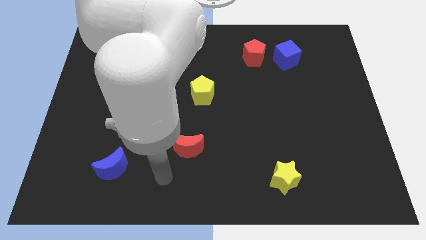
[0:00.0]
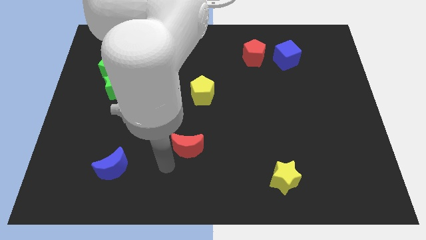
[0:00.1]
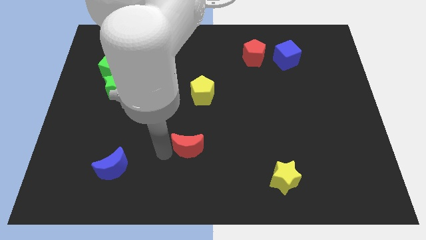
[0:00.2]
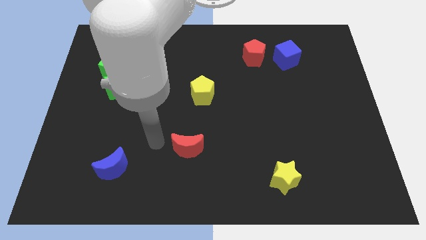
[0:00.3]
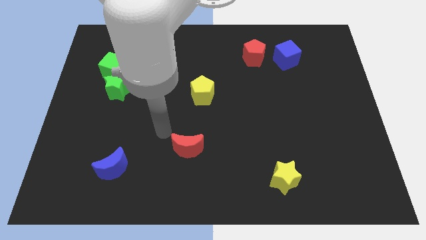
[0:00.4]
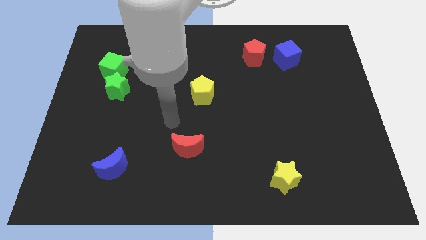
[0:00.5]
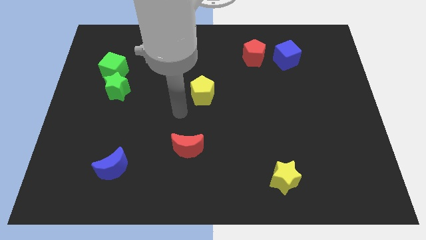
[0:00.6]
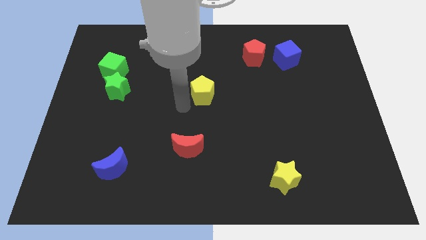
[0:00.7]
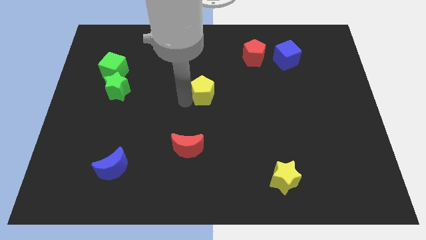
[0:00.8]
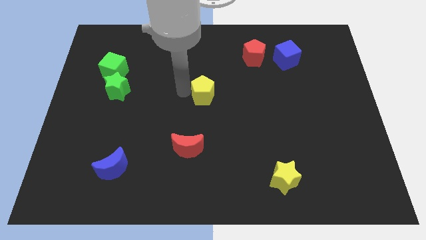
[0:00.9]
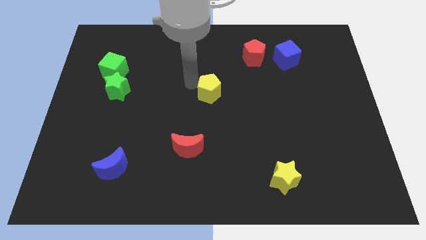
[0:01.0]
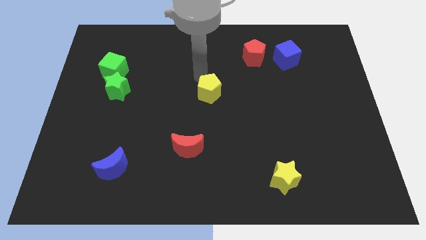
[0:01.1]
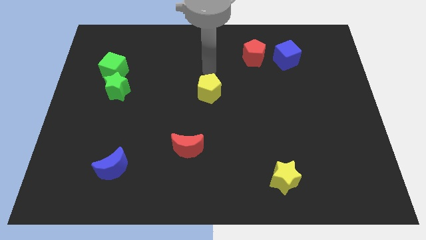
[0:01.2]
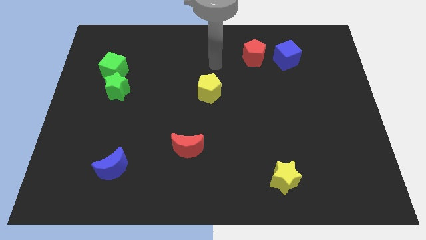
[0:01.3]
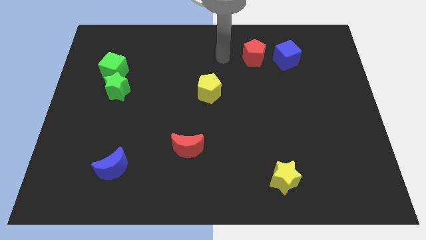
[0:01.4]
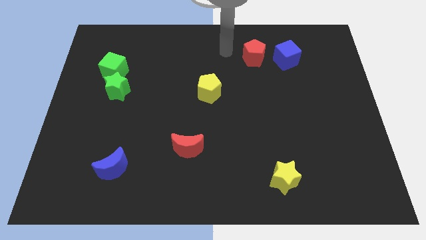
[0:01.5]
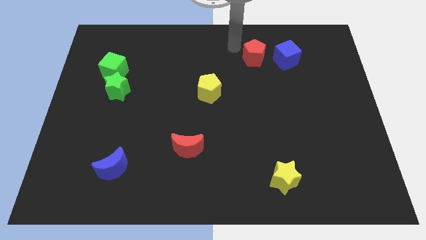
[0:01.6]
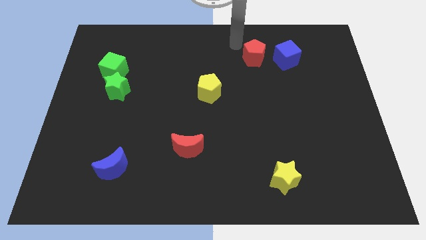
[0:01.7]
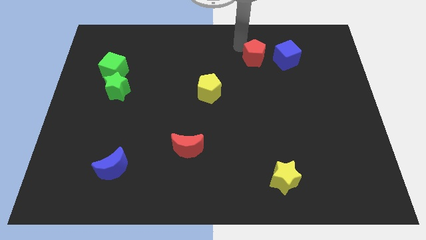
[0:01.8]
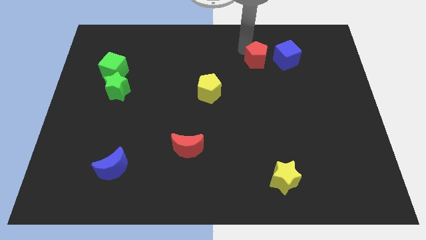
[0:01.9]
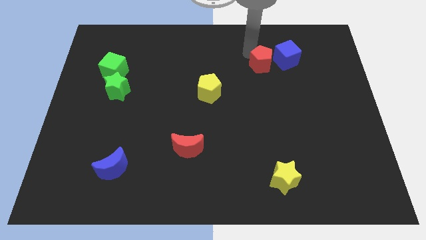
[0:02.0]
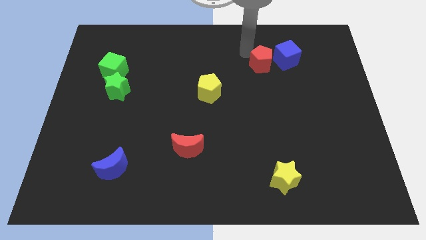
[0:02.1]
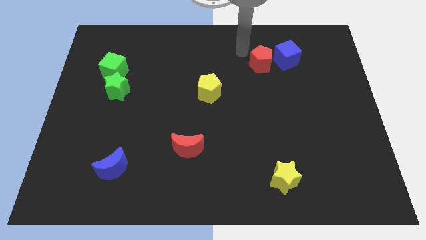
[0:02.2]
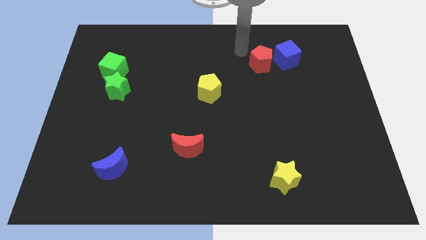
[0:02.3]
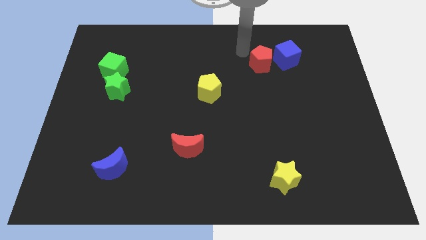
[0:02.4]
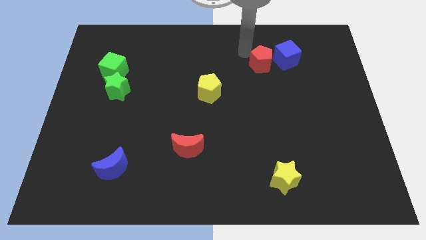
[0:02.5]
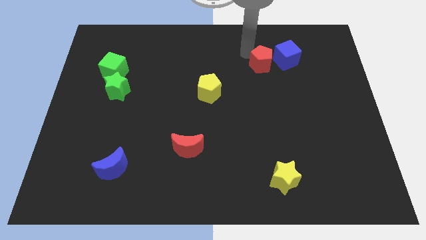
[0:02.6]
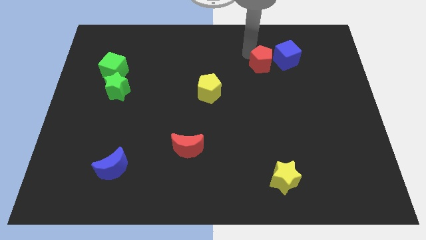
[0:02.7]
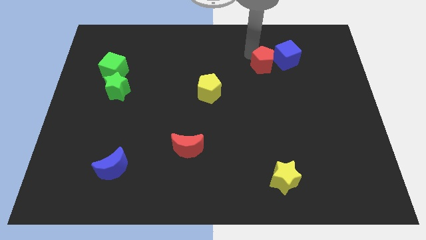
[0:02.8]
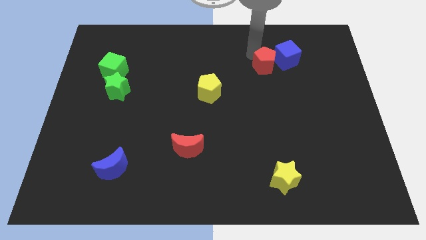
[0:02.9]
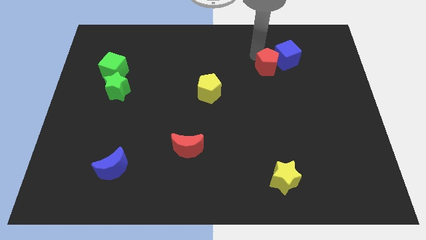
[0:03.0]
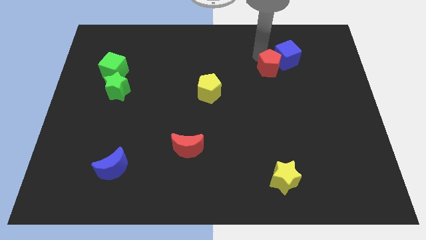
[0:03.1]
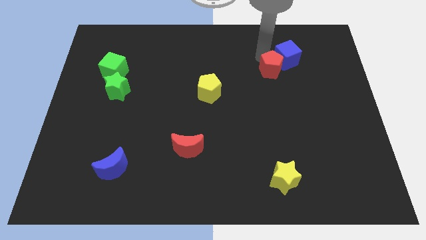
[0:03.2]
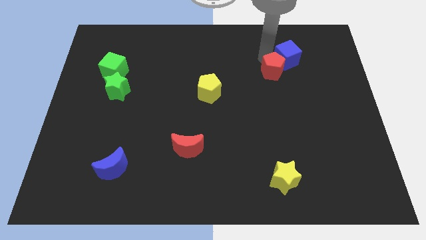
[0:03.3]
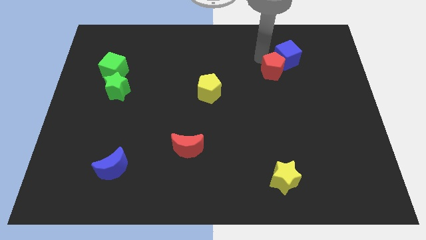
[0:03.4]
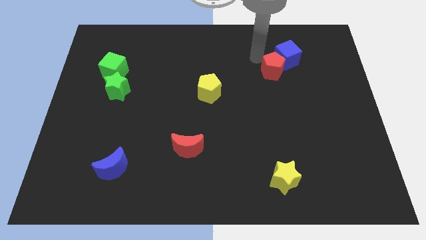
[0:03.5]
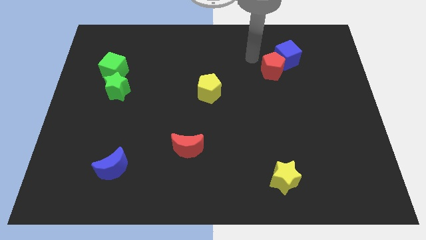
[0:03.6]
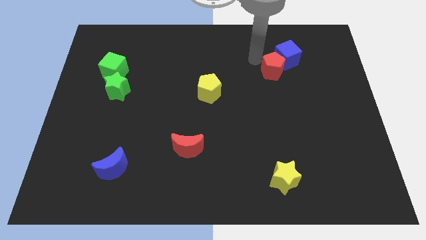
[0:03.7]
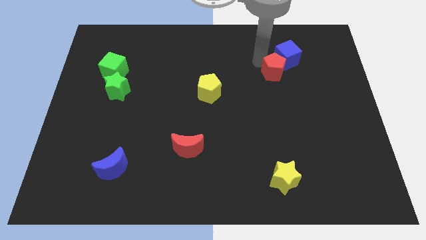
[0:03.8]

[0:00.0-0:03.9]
slide the red pentagon a little downwards and to the right diagonally

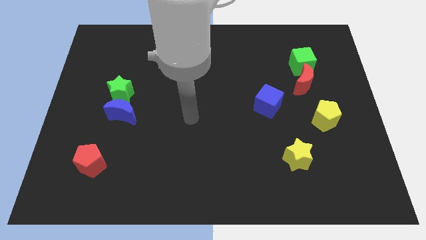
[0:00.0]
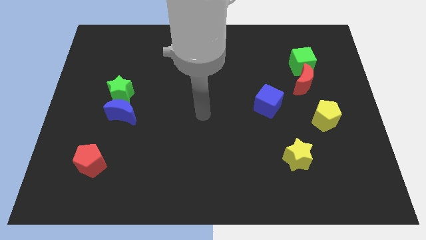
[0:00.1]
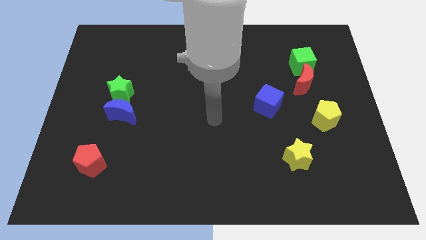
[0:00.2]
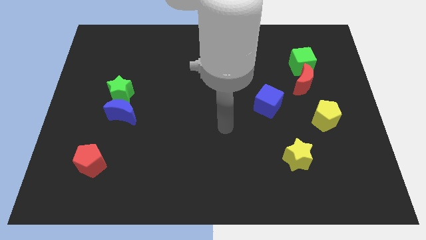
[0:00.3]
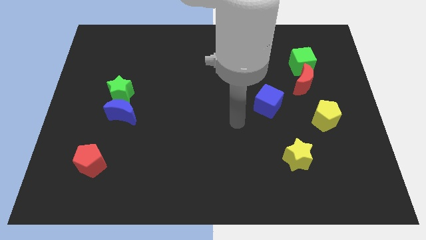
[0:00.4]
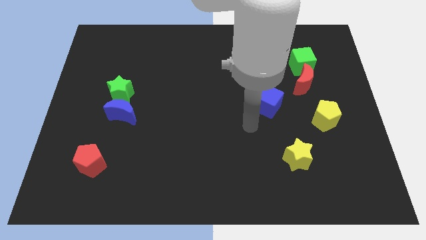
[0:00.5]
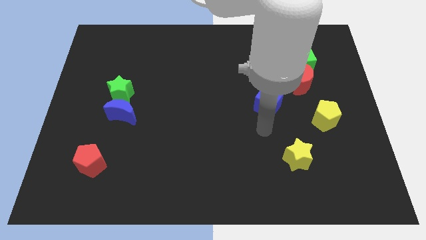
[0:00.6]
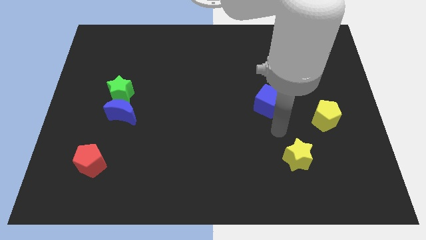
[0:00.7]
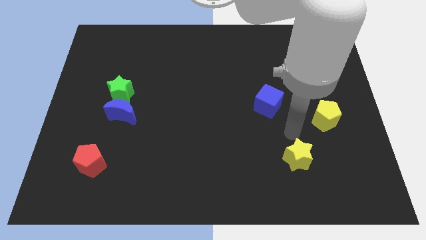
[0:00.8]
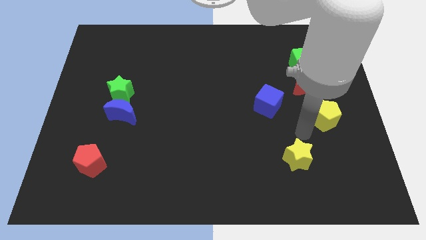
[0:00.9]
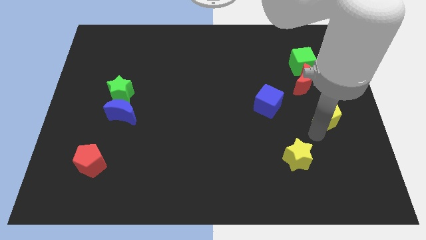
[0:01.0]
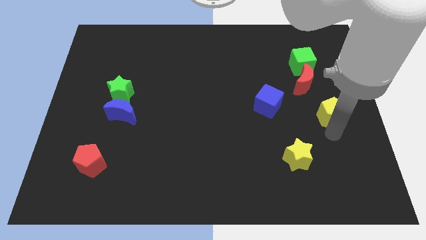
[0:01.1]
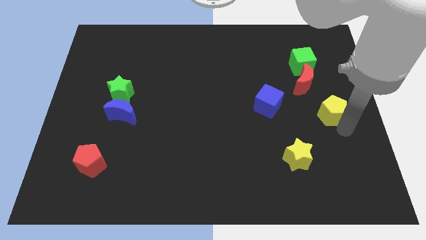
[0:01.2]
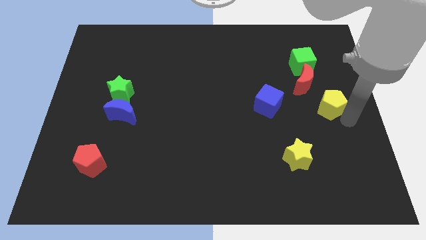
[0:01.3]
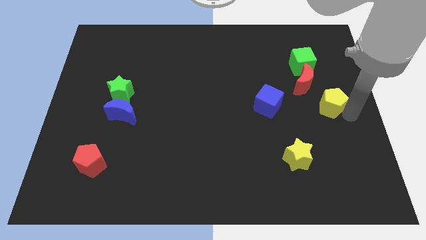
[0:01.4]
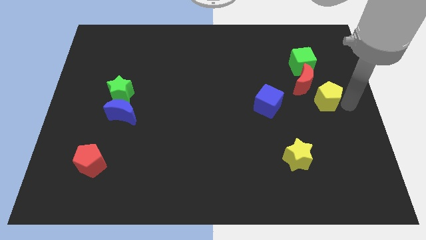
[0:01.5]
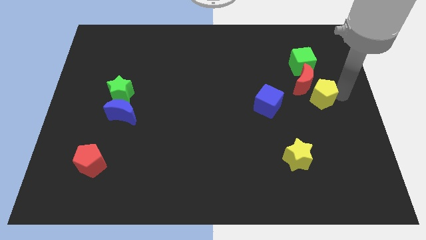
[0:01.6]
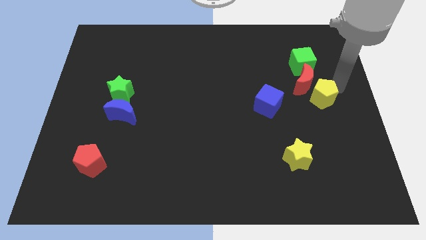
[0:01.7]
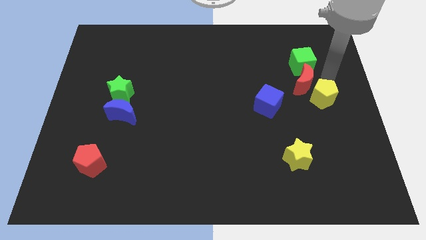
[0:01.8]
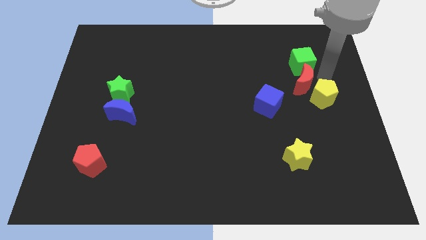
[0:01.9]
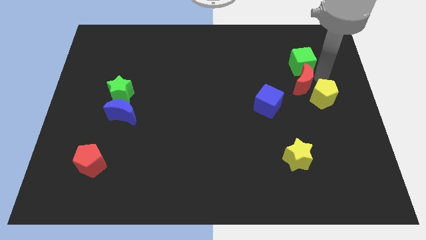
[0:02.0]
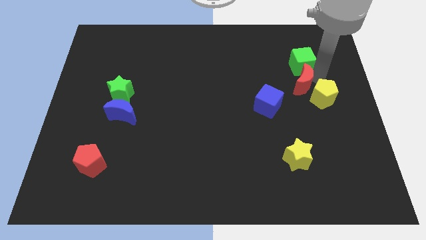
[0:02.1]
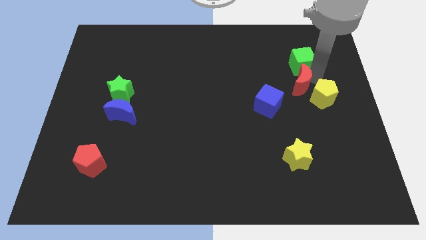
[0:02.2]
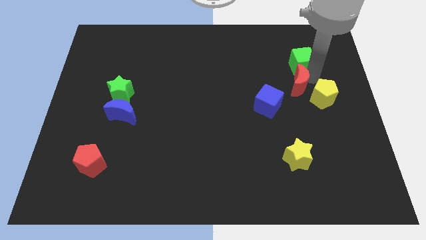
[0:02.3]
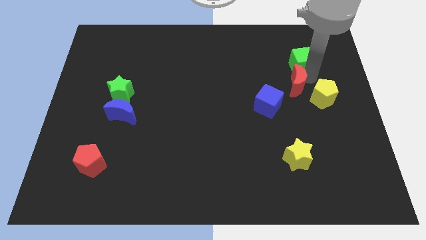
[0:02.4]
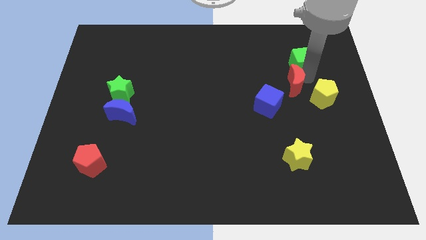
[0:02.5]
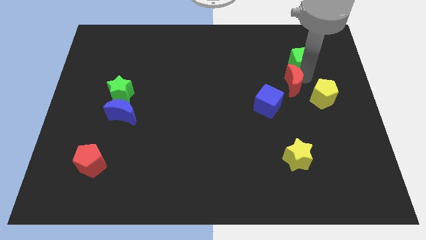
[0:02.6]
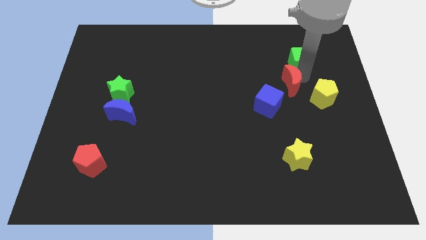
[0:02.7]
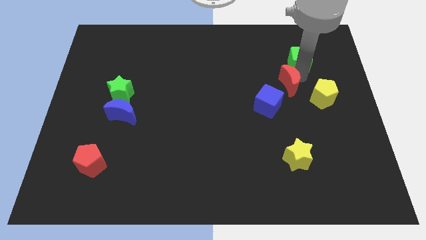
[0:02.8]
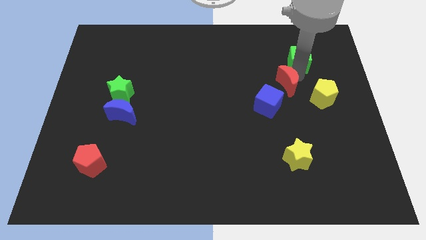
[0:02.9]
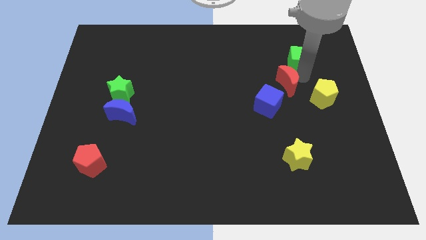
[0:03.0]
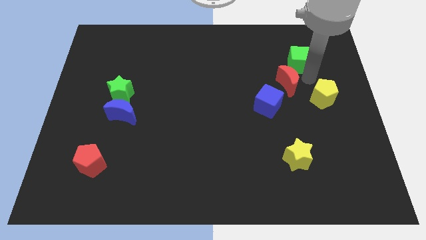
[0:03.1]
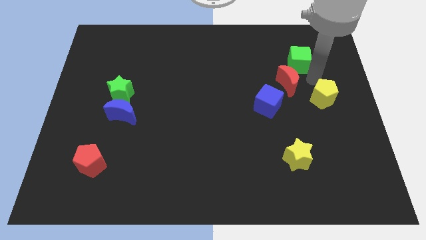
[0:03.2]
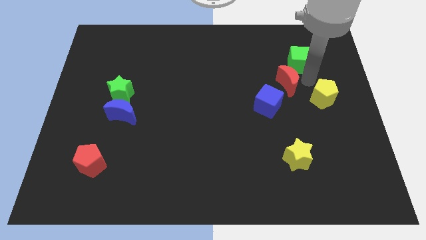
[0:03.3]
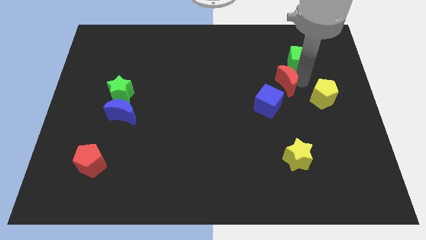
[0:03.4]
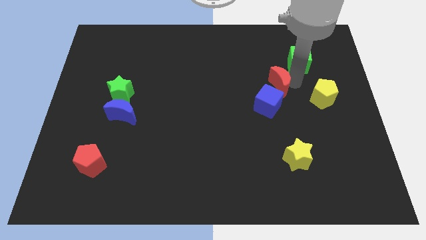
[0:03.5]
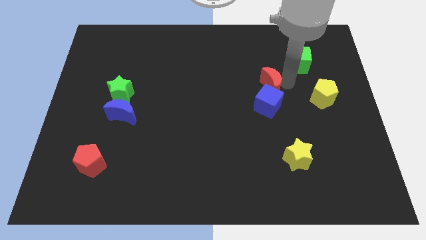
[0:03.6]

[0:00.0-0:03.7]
slightly push the red moon left
